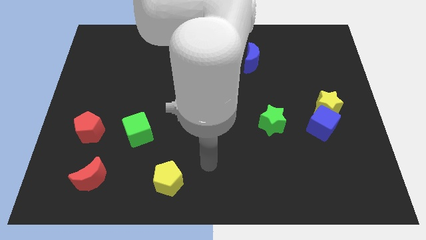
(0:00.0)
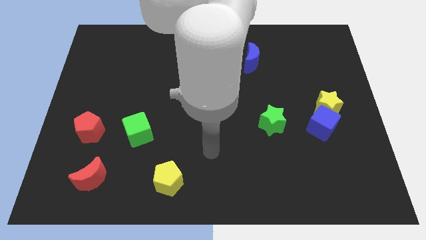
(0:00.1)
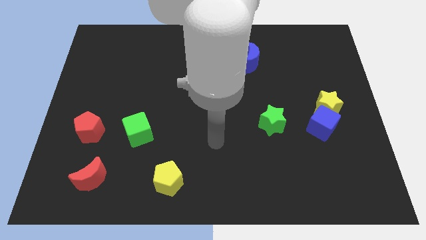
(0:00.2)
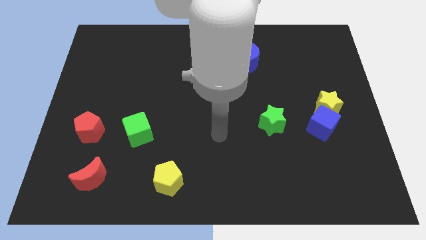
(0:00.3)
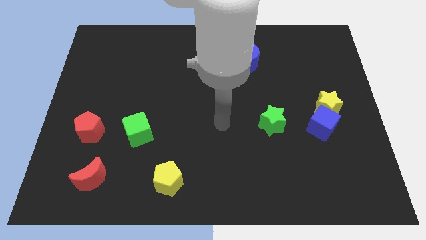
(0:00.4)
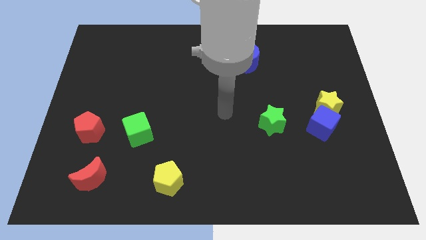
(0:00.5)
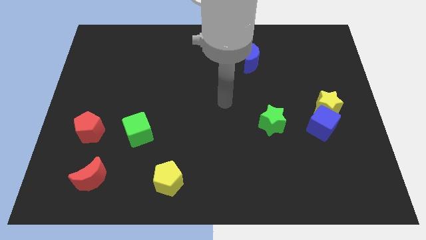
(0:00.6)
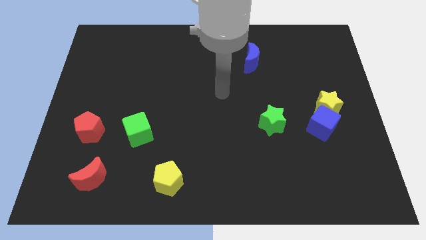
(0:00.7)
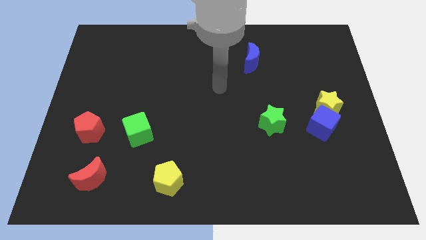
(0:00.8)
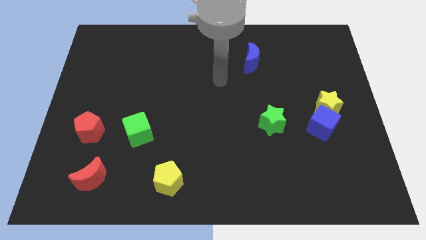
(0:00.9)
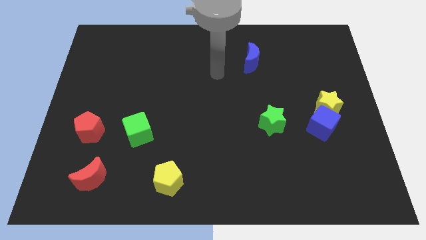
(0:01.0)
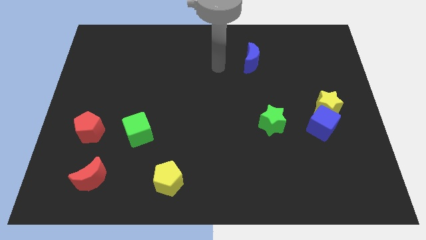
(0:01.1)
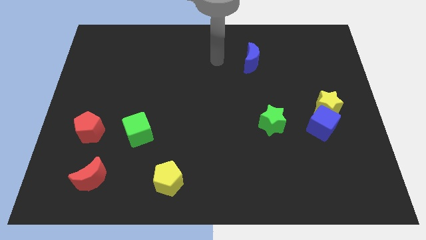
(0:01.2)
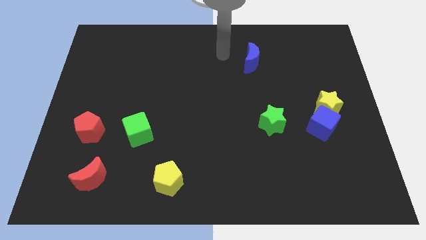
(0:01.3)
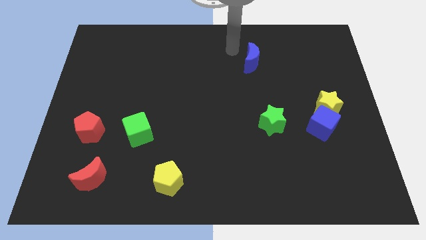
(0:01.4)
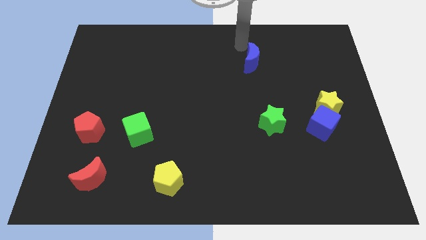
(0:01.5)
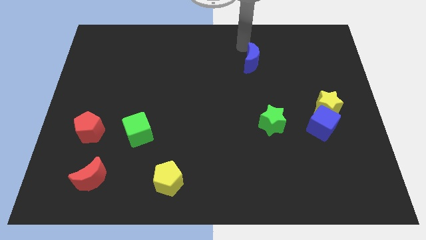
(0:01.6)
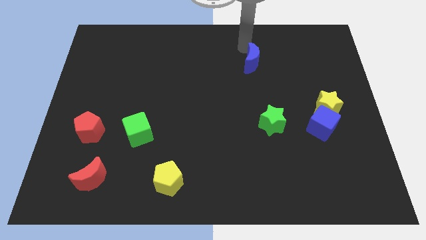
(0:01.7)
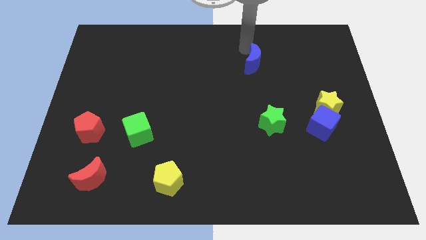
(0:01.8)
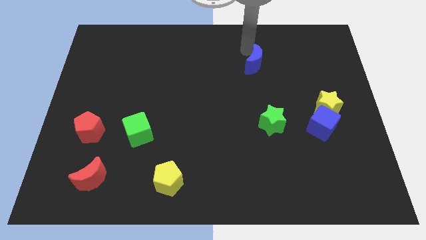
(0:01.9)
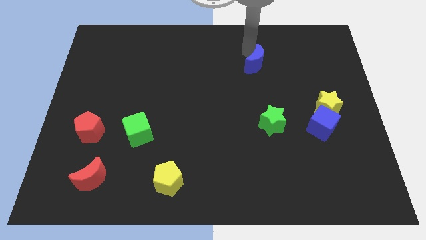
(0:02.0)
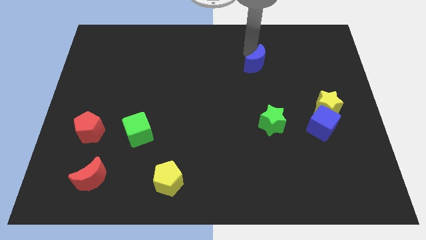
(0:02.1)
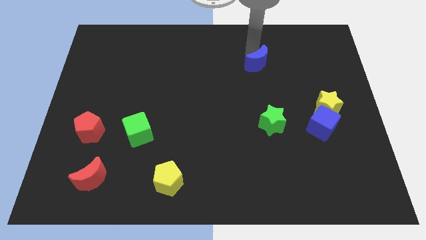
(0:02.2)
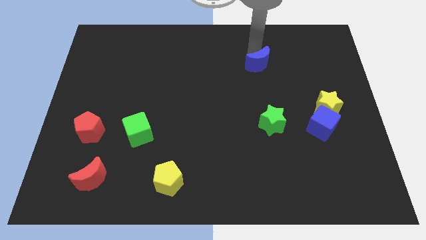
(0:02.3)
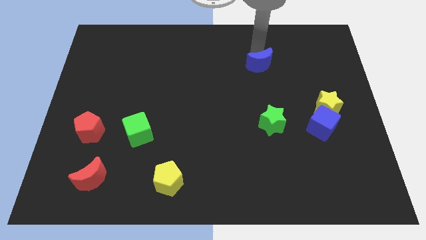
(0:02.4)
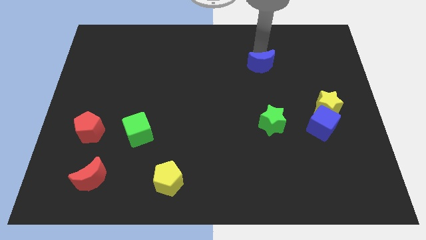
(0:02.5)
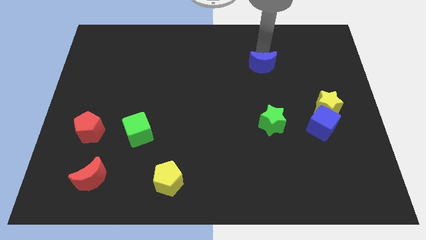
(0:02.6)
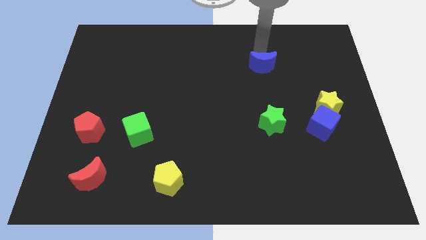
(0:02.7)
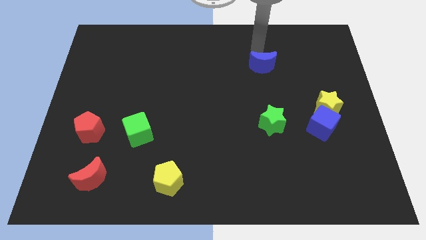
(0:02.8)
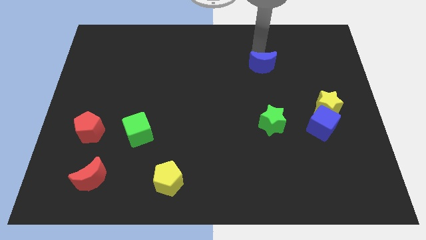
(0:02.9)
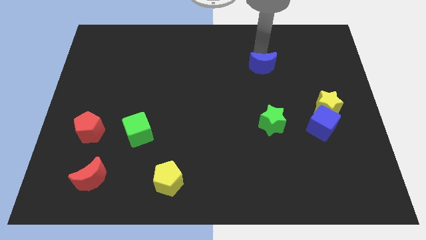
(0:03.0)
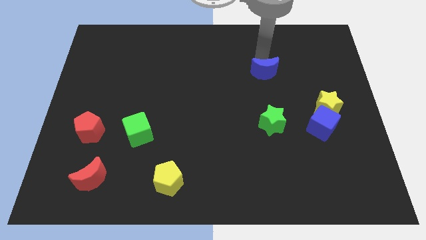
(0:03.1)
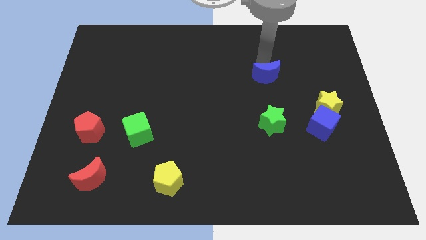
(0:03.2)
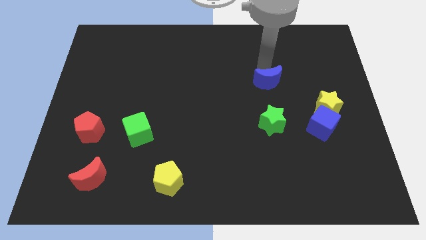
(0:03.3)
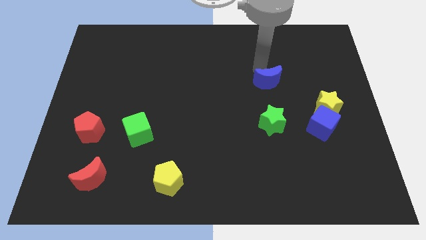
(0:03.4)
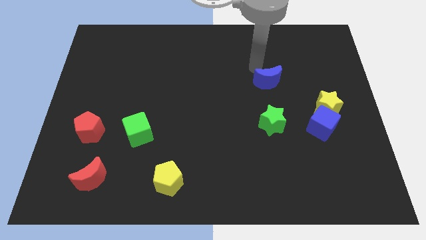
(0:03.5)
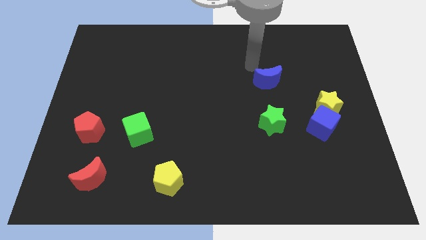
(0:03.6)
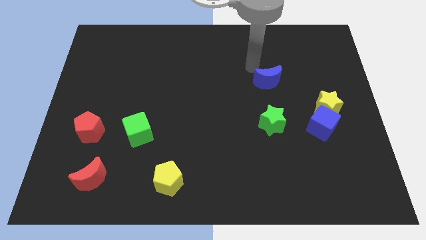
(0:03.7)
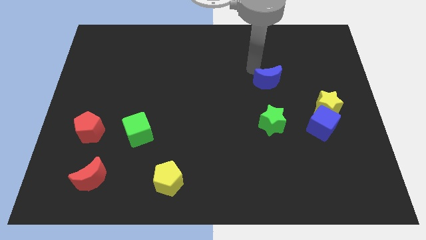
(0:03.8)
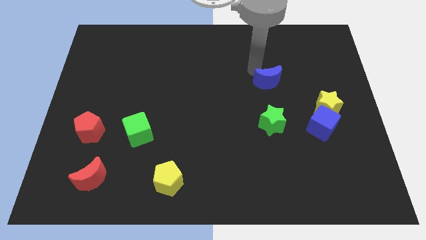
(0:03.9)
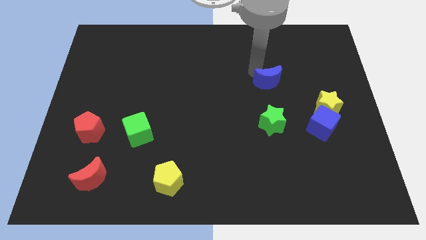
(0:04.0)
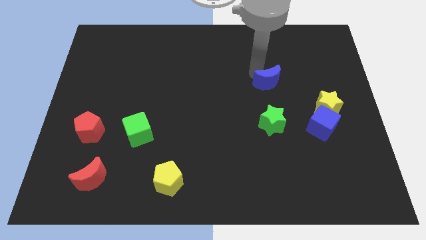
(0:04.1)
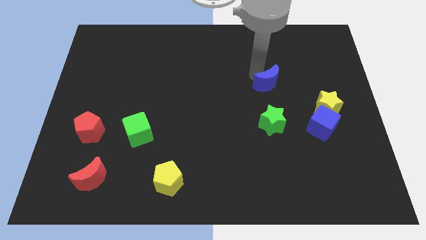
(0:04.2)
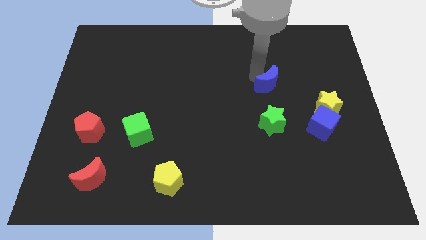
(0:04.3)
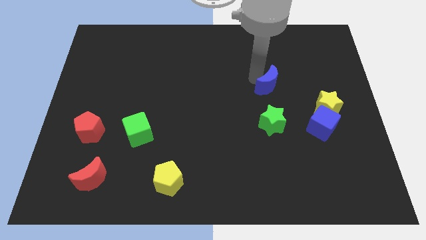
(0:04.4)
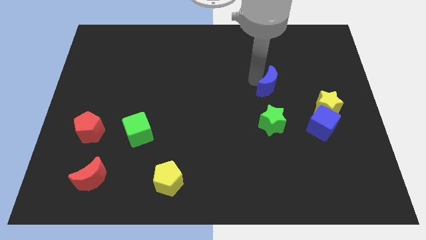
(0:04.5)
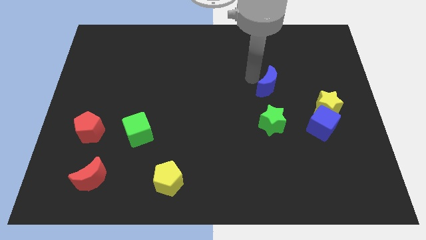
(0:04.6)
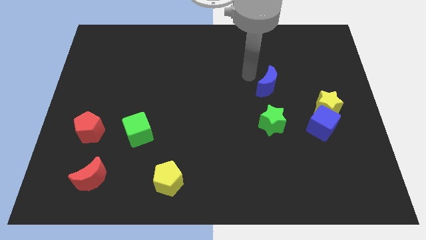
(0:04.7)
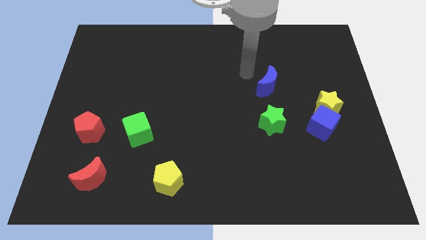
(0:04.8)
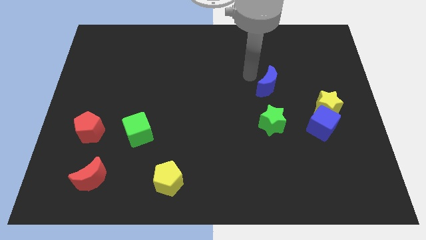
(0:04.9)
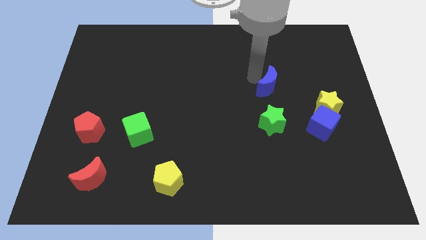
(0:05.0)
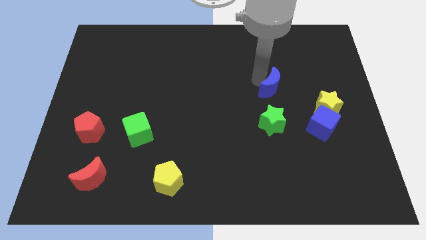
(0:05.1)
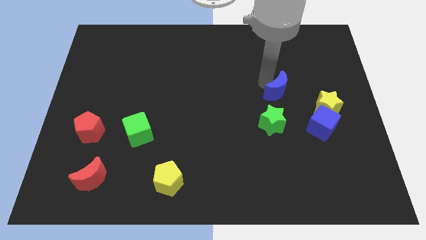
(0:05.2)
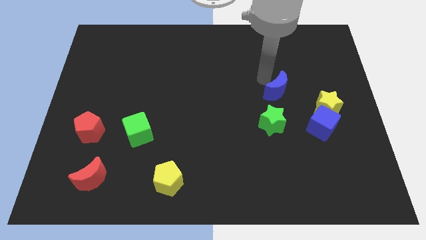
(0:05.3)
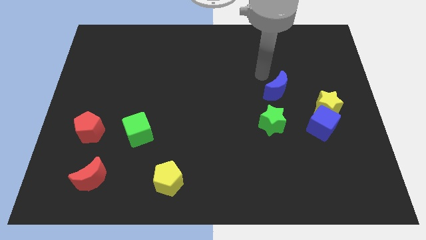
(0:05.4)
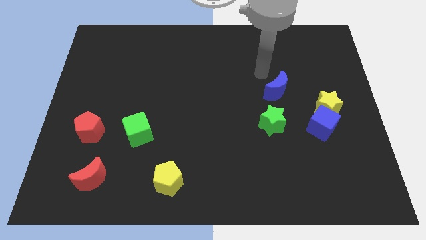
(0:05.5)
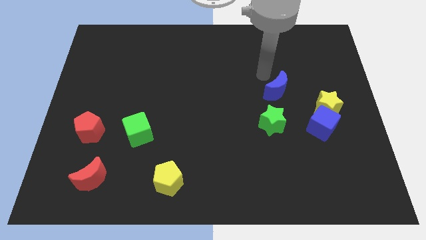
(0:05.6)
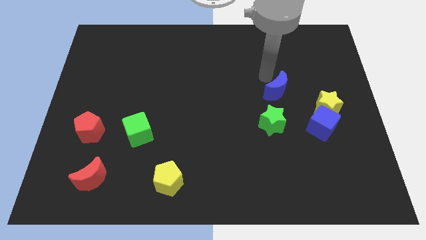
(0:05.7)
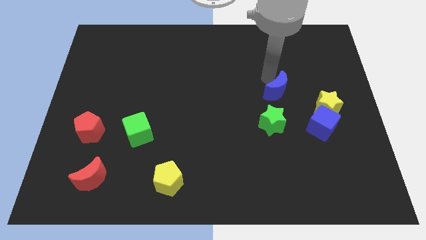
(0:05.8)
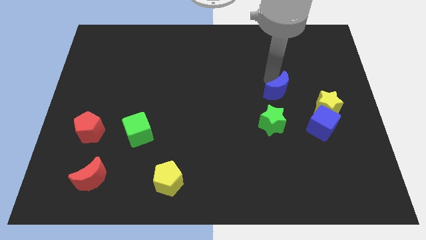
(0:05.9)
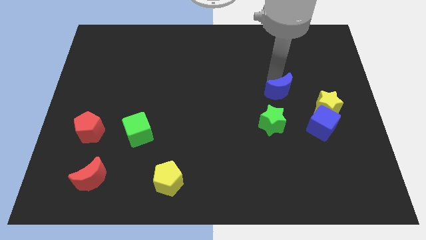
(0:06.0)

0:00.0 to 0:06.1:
move the blue moon diagonally up and to the right of the green star

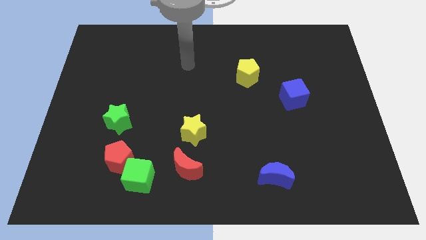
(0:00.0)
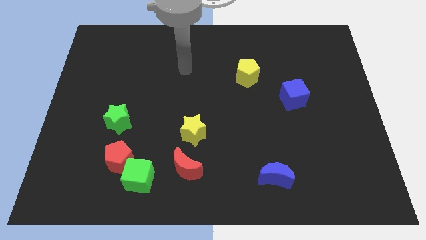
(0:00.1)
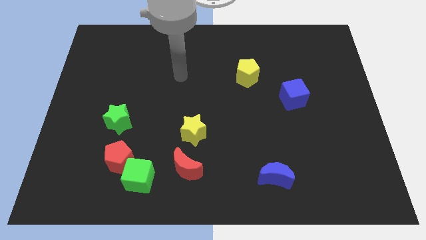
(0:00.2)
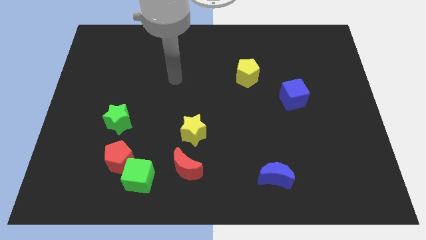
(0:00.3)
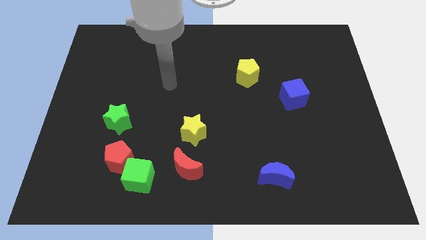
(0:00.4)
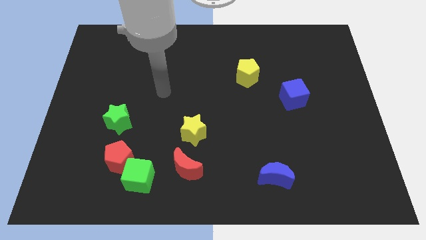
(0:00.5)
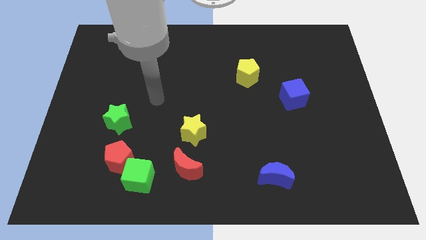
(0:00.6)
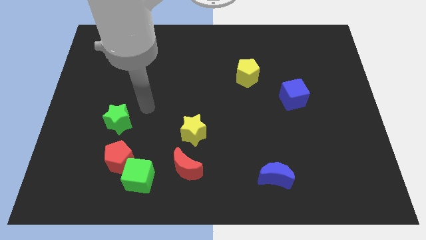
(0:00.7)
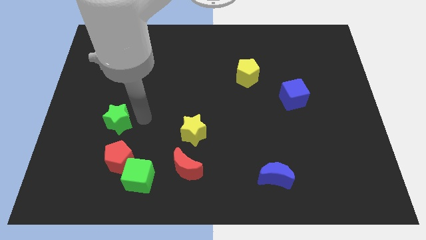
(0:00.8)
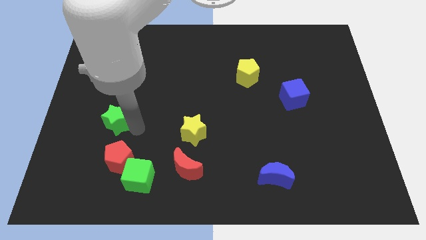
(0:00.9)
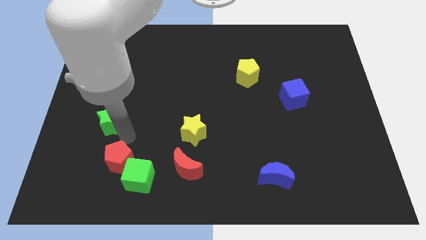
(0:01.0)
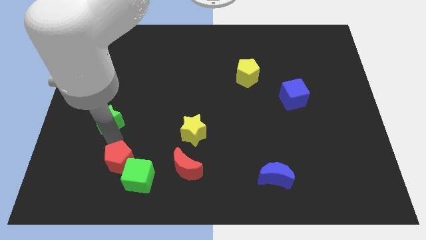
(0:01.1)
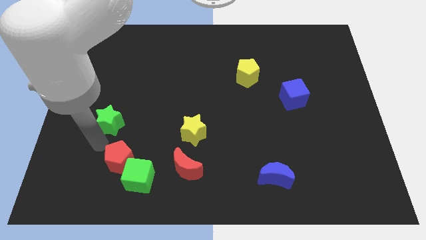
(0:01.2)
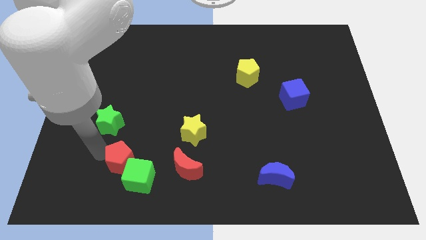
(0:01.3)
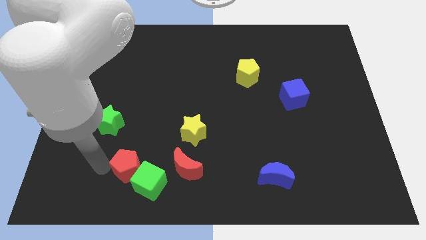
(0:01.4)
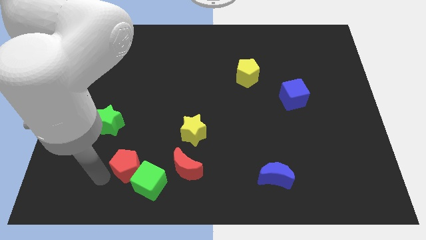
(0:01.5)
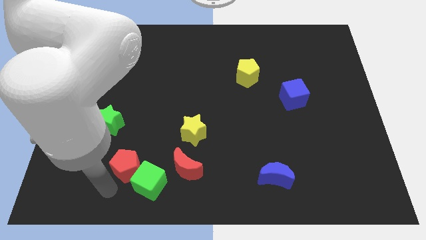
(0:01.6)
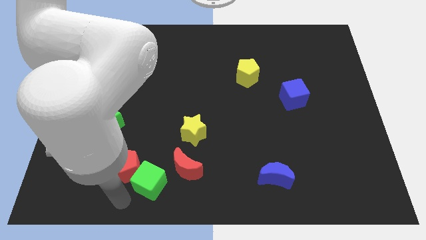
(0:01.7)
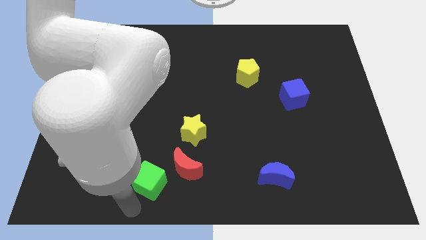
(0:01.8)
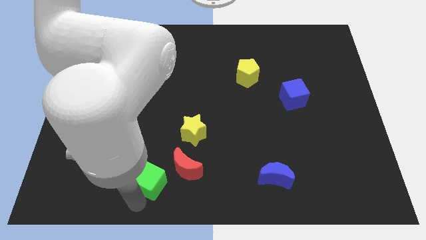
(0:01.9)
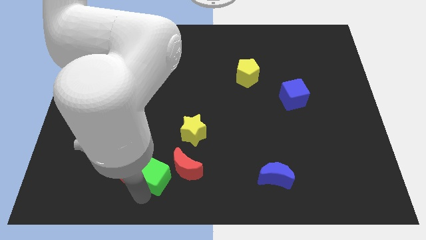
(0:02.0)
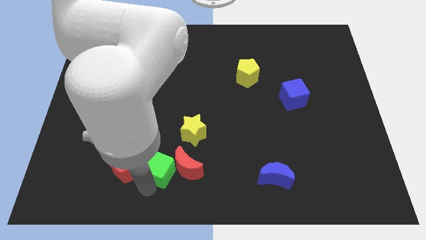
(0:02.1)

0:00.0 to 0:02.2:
move the green cube diagonally down and to the left of the yellow star
